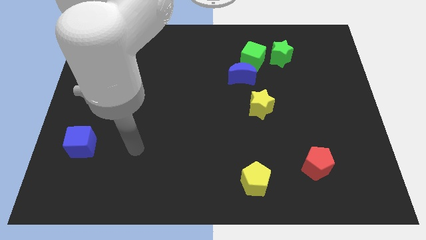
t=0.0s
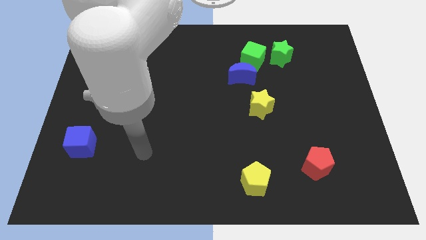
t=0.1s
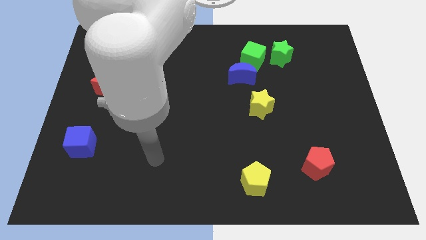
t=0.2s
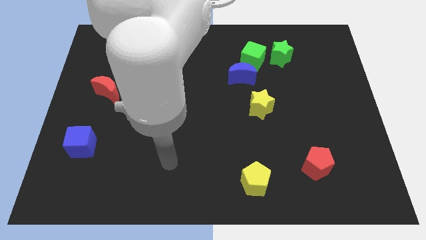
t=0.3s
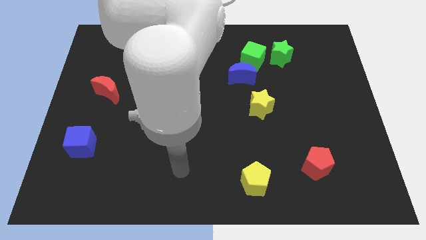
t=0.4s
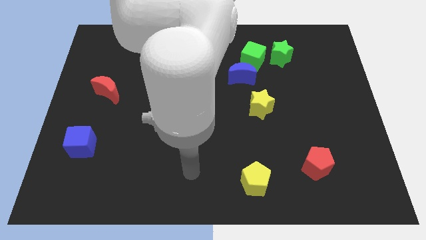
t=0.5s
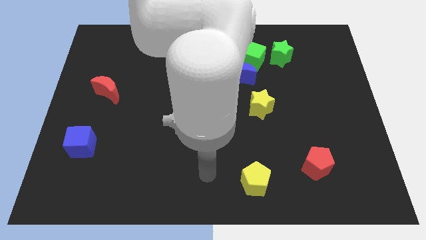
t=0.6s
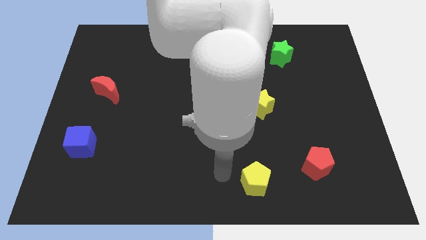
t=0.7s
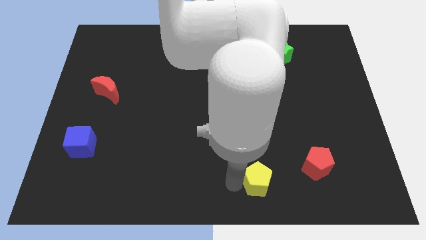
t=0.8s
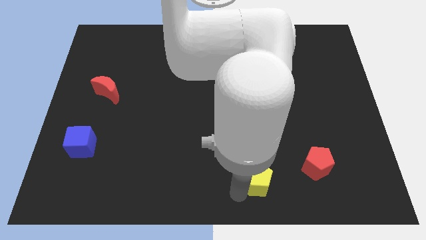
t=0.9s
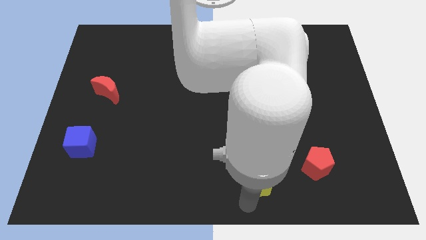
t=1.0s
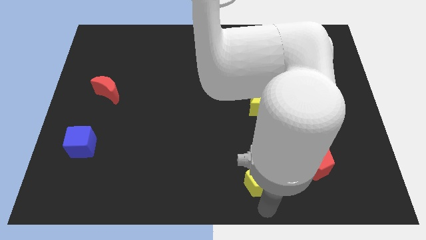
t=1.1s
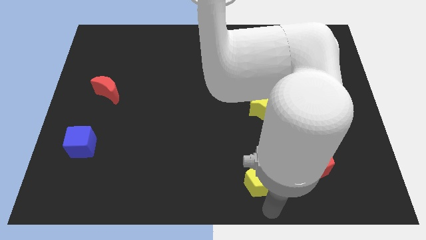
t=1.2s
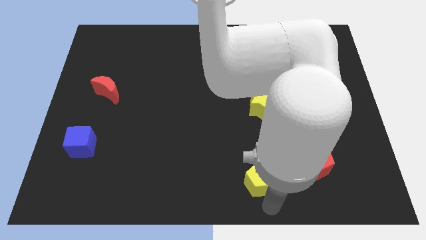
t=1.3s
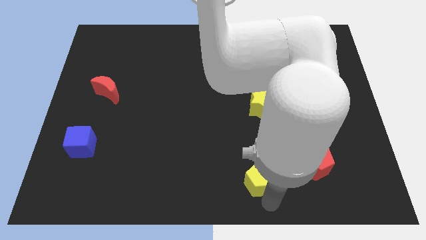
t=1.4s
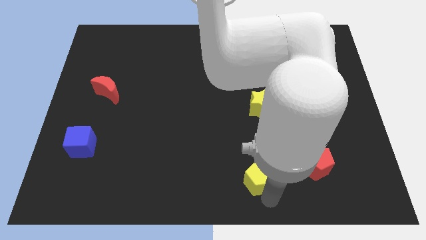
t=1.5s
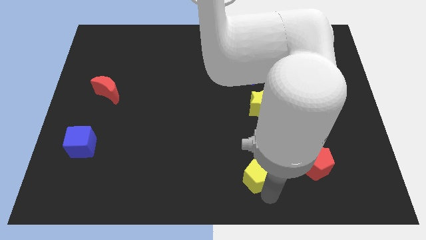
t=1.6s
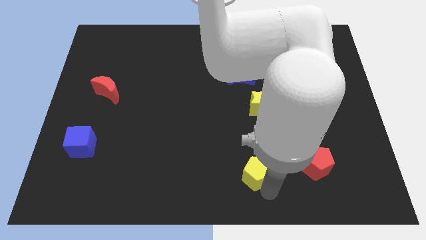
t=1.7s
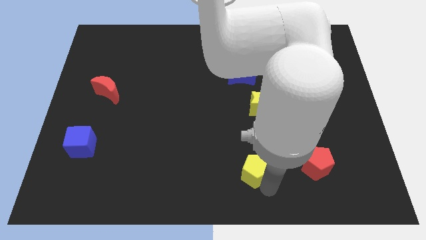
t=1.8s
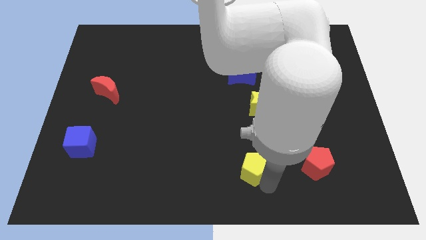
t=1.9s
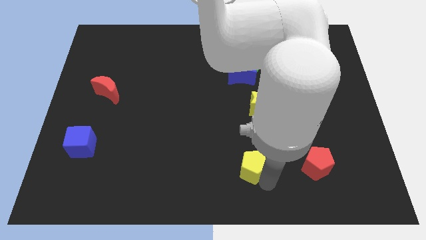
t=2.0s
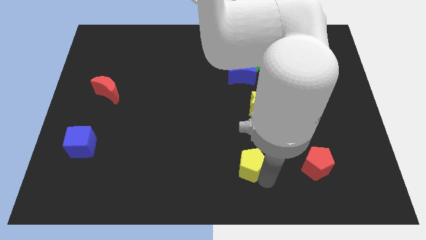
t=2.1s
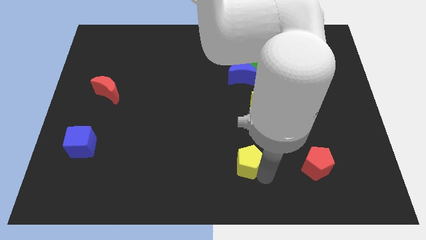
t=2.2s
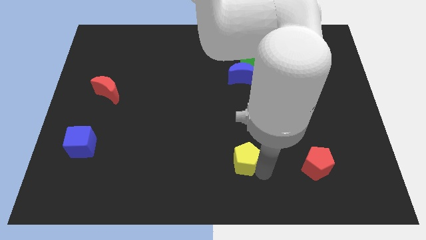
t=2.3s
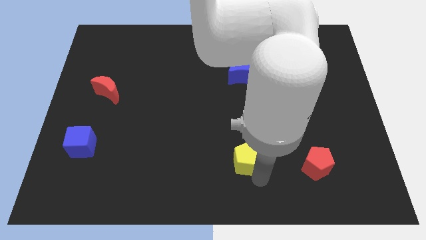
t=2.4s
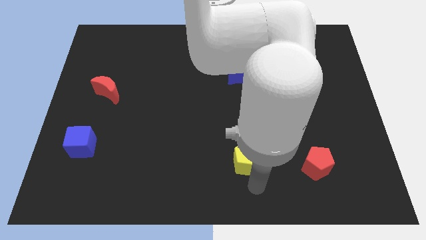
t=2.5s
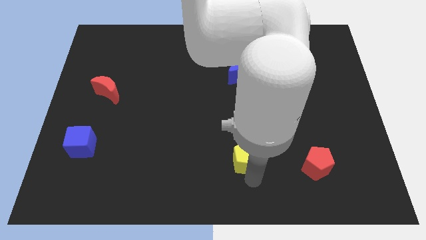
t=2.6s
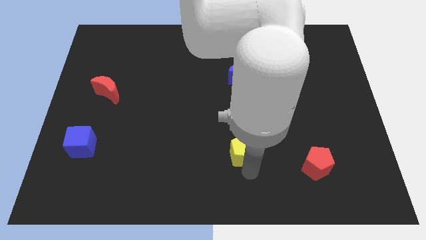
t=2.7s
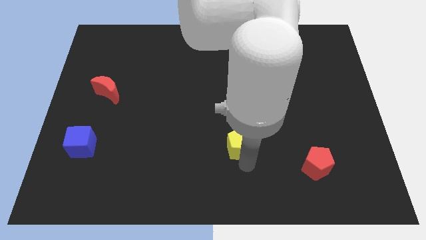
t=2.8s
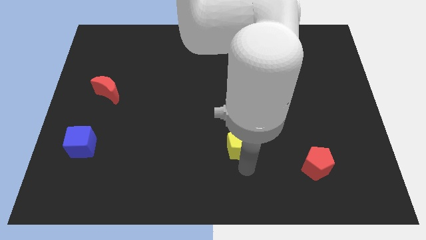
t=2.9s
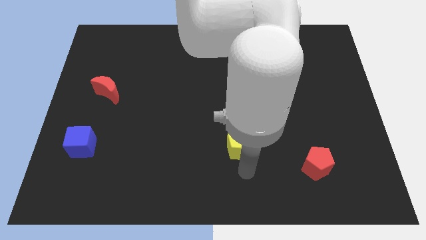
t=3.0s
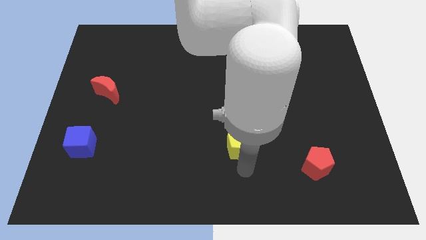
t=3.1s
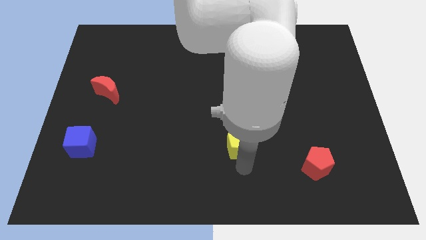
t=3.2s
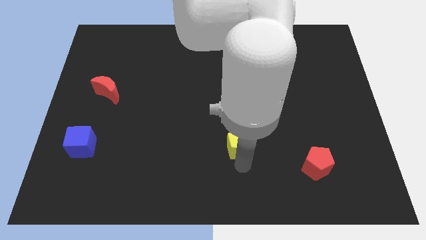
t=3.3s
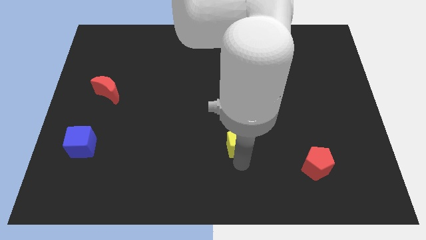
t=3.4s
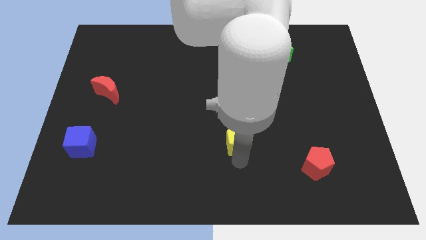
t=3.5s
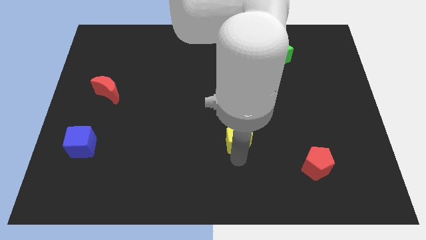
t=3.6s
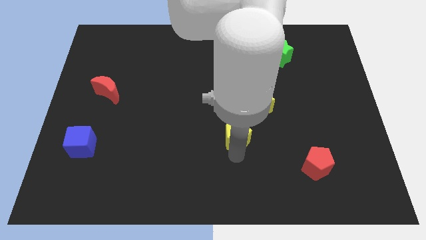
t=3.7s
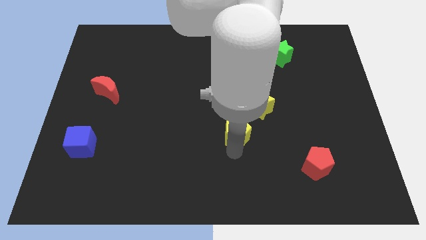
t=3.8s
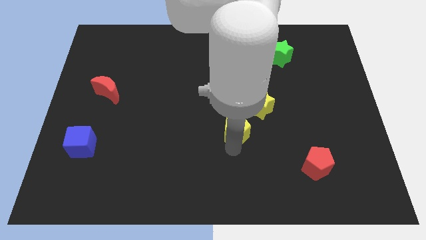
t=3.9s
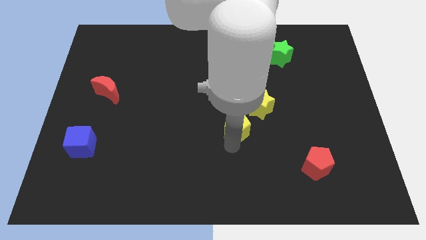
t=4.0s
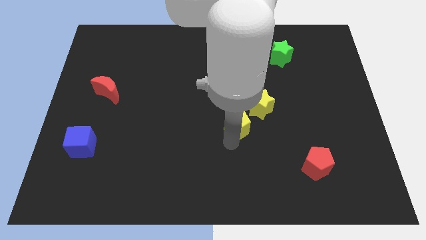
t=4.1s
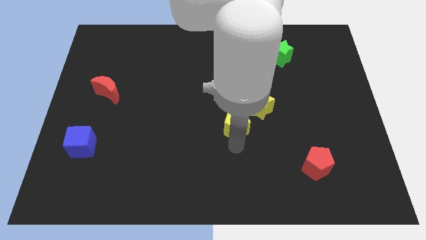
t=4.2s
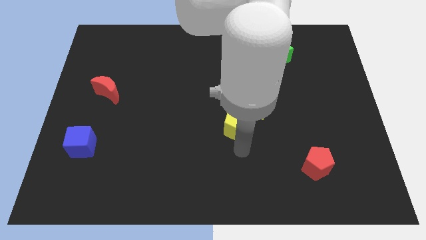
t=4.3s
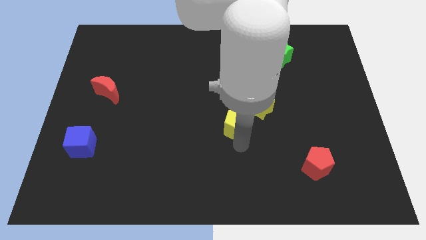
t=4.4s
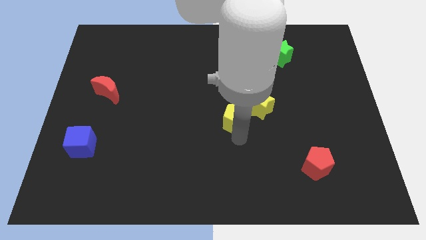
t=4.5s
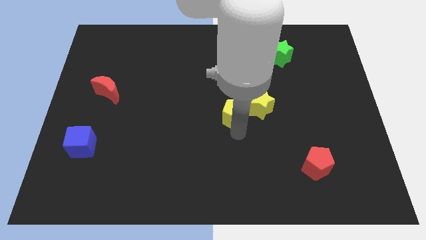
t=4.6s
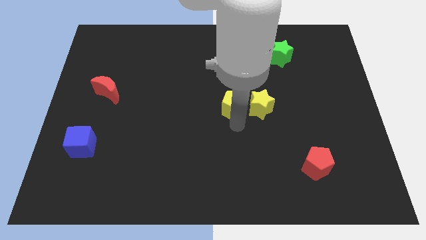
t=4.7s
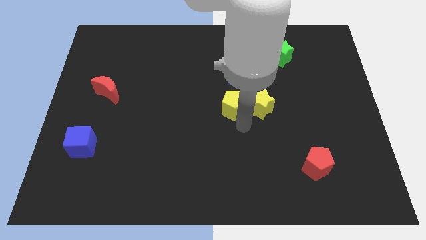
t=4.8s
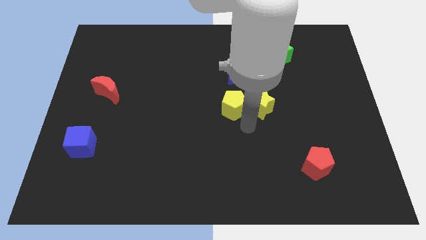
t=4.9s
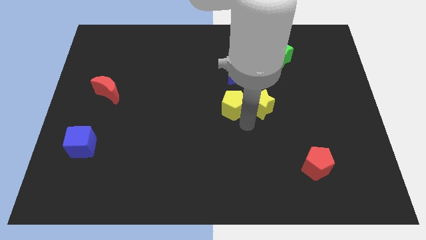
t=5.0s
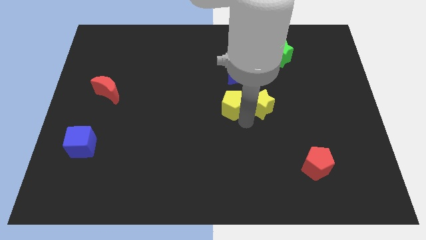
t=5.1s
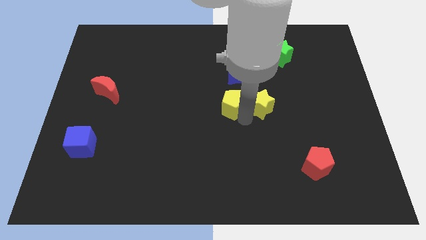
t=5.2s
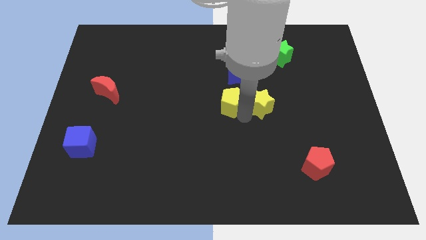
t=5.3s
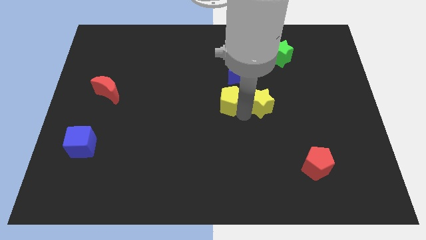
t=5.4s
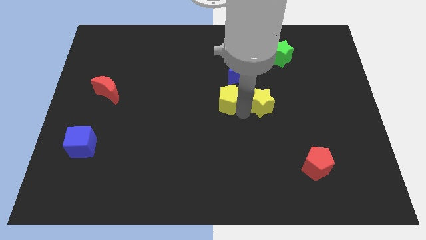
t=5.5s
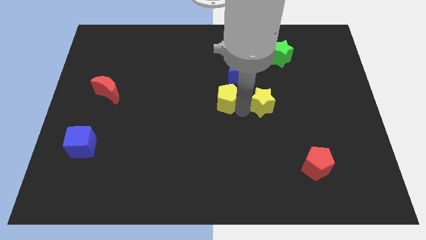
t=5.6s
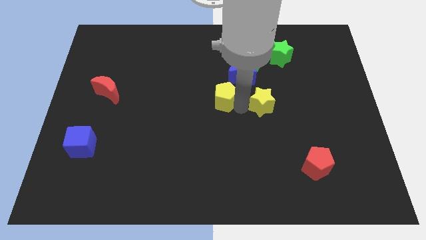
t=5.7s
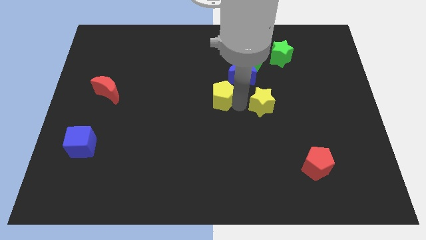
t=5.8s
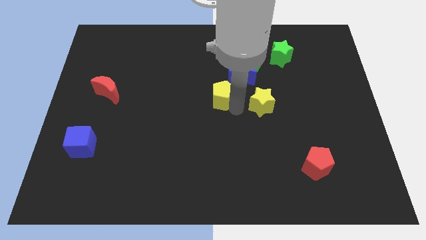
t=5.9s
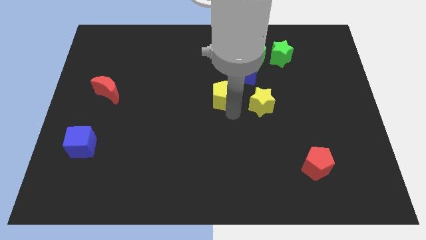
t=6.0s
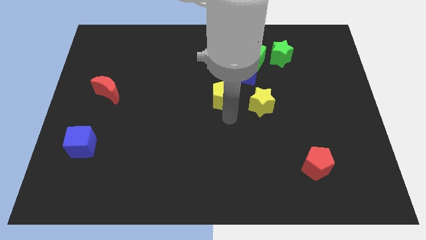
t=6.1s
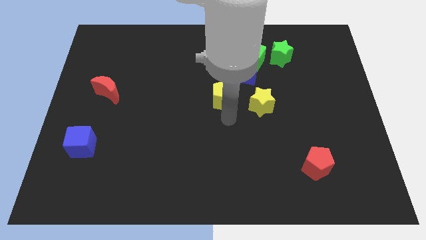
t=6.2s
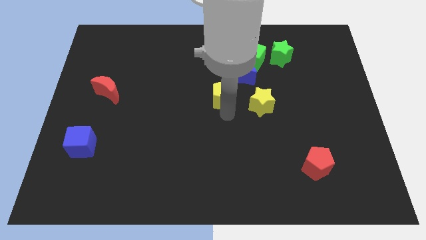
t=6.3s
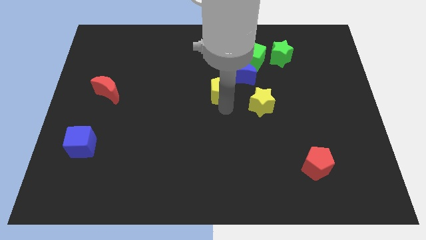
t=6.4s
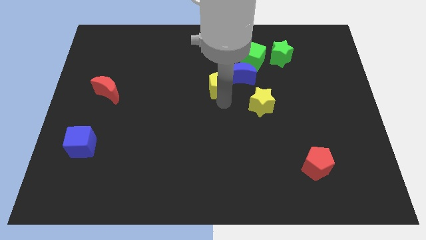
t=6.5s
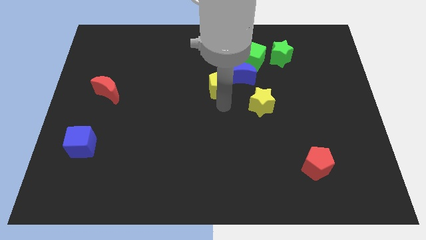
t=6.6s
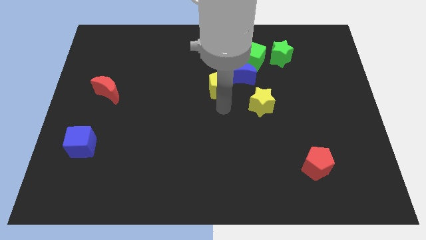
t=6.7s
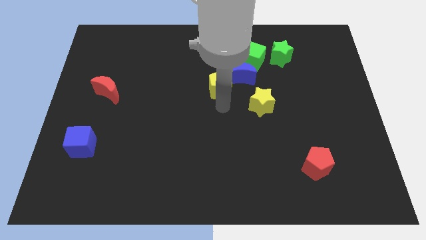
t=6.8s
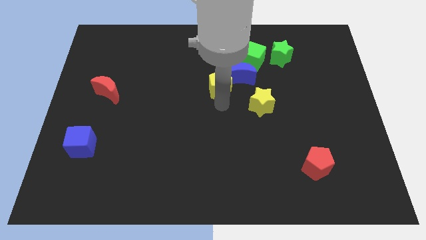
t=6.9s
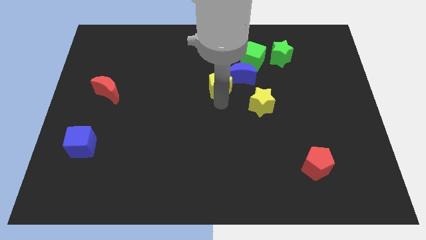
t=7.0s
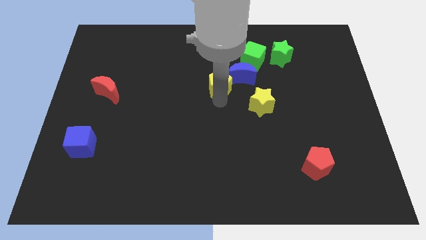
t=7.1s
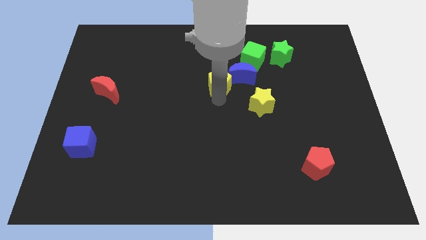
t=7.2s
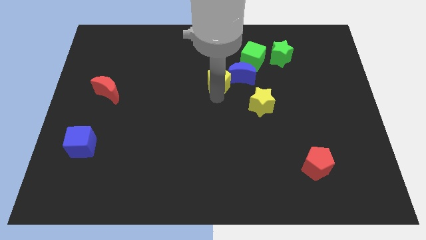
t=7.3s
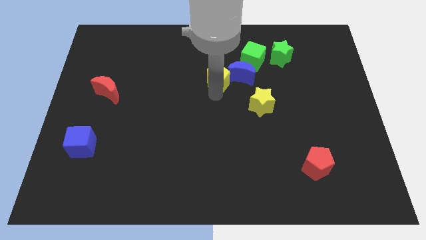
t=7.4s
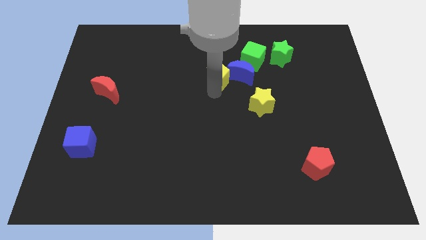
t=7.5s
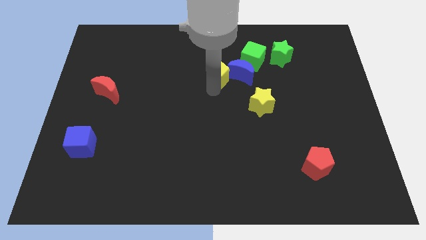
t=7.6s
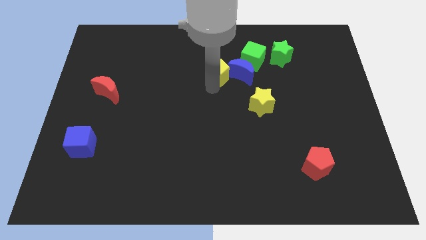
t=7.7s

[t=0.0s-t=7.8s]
slide the yellow pentagon to the top left side of the blue moon
